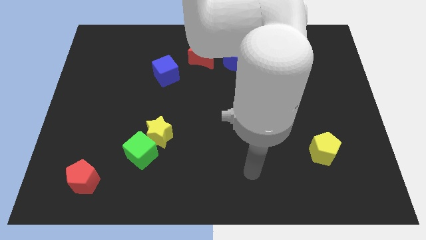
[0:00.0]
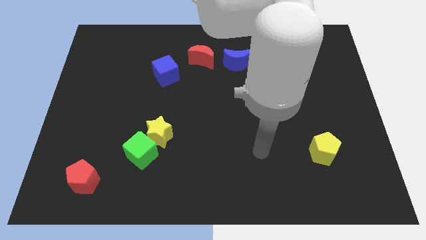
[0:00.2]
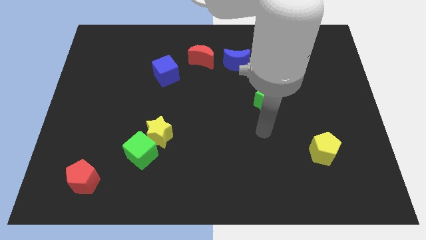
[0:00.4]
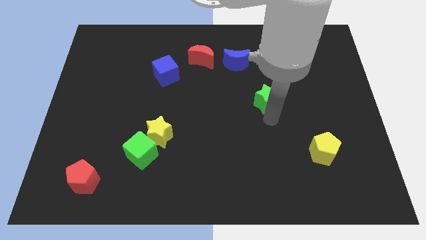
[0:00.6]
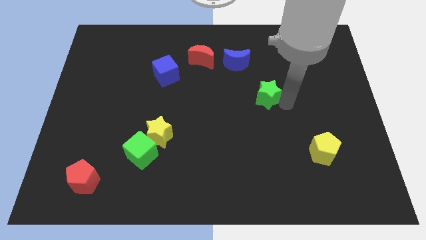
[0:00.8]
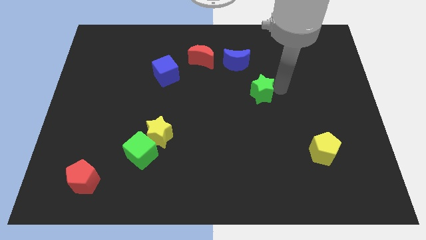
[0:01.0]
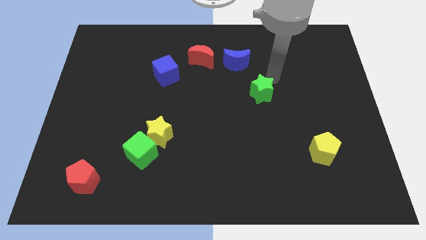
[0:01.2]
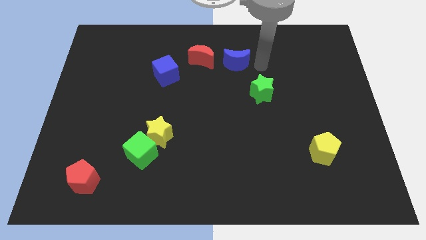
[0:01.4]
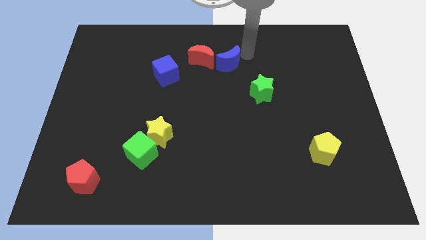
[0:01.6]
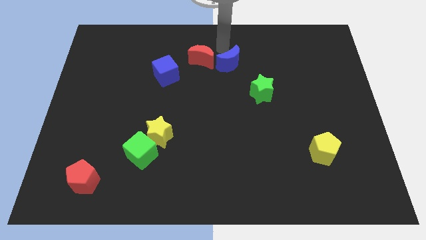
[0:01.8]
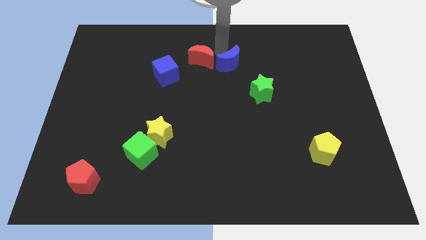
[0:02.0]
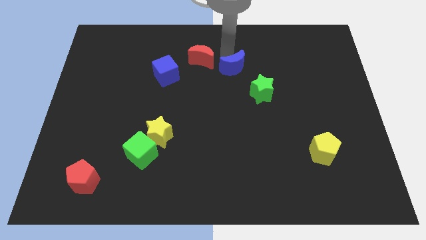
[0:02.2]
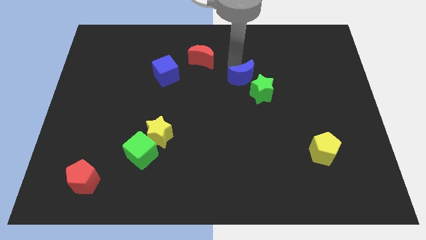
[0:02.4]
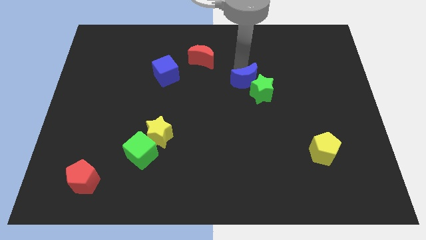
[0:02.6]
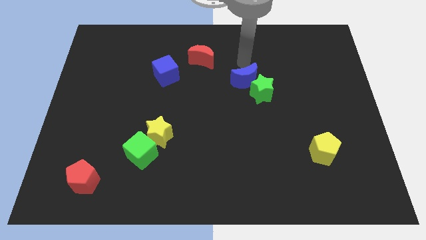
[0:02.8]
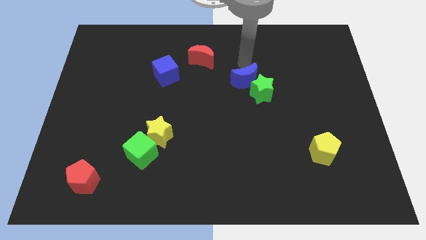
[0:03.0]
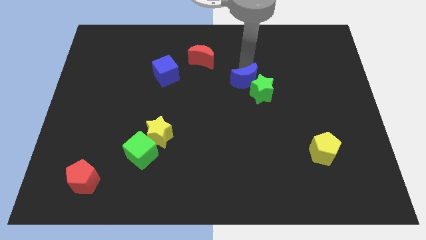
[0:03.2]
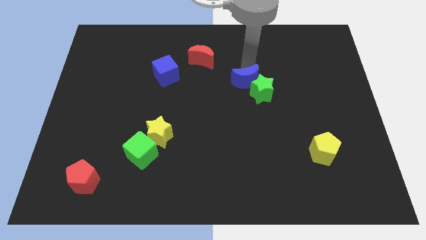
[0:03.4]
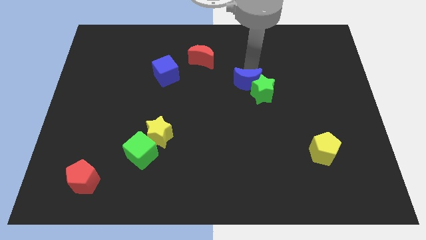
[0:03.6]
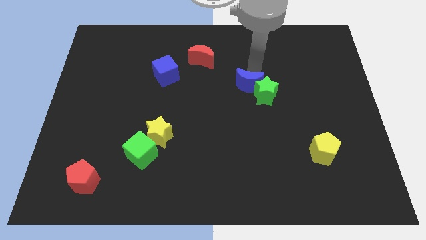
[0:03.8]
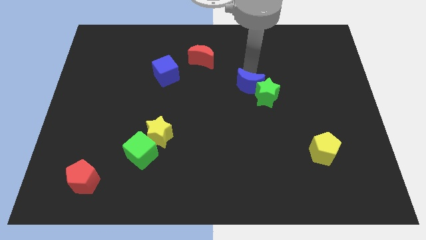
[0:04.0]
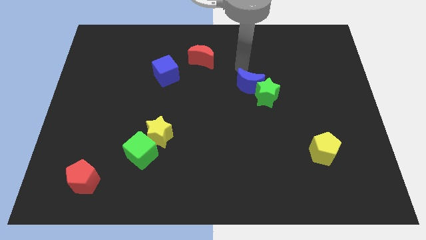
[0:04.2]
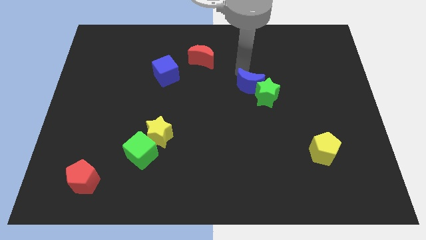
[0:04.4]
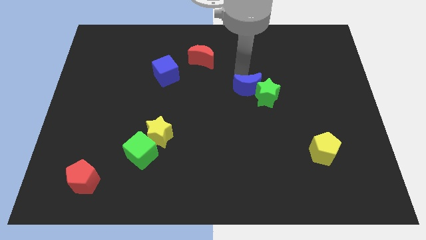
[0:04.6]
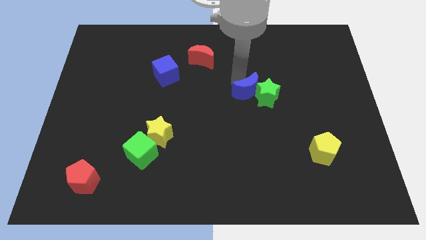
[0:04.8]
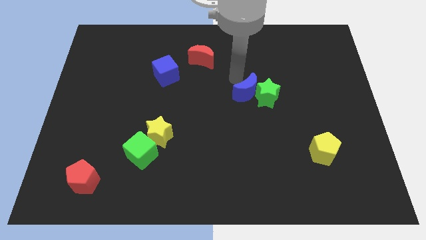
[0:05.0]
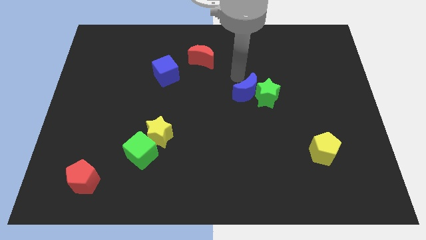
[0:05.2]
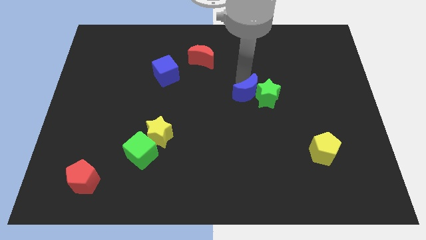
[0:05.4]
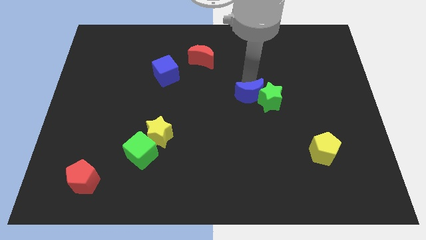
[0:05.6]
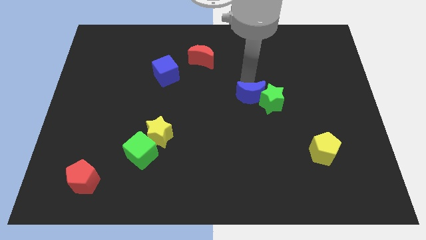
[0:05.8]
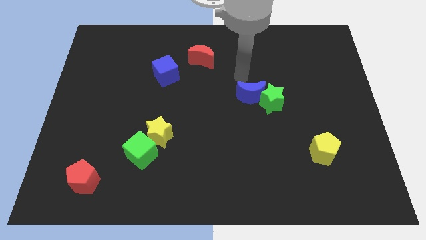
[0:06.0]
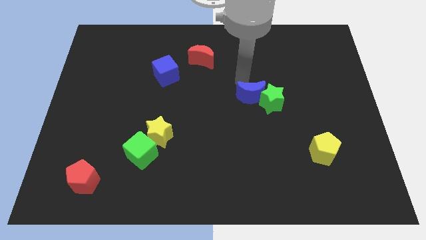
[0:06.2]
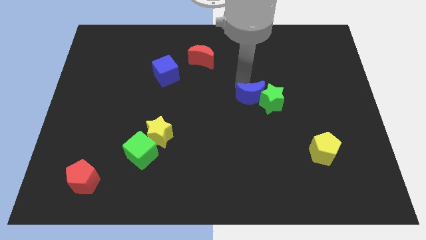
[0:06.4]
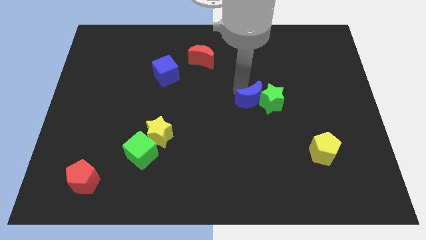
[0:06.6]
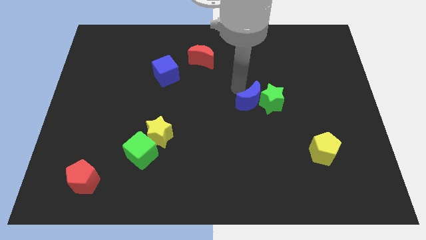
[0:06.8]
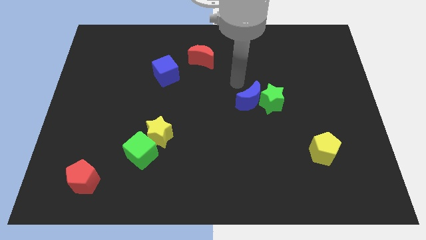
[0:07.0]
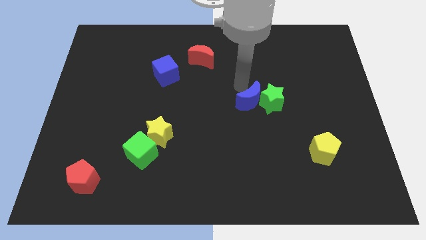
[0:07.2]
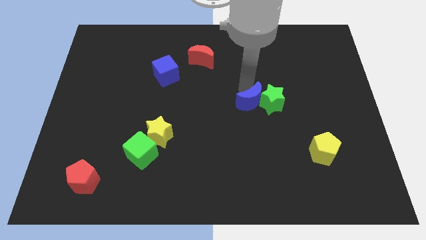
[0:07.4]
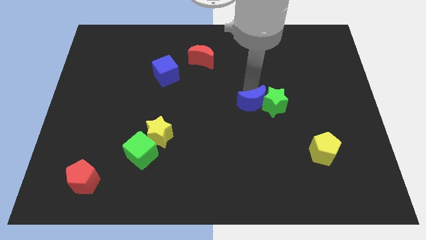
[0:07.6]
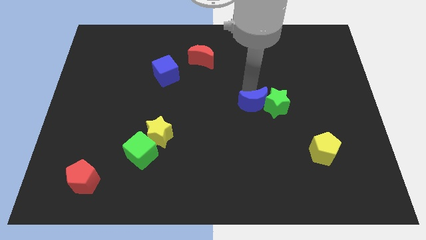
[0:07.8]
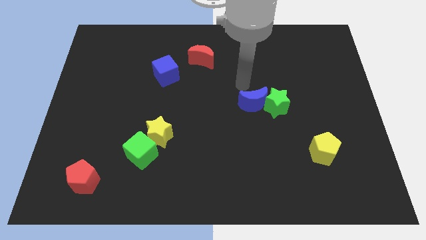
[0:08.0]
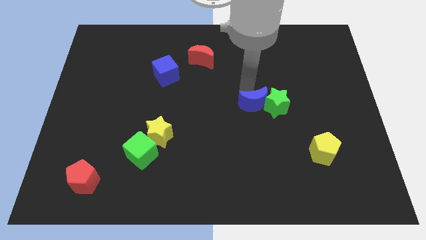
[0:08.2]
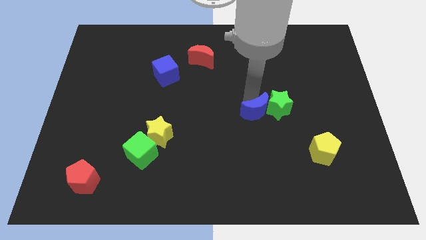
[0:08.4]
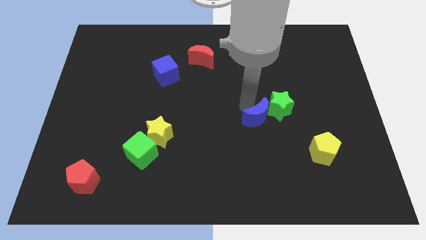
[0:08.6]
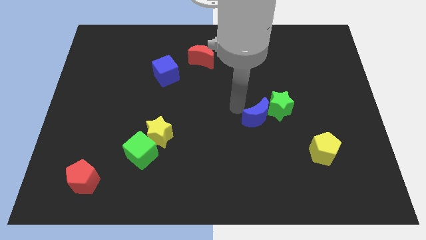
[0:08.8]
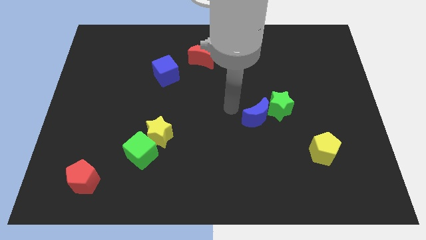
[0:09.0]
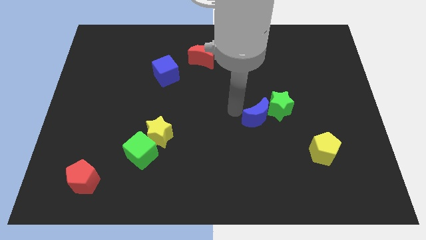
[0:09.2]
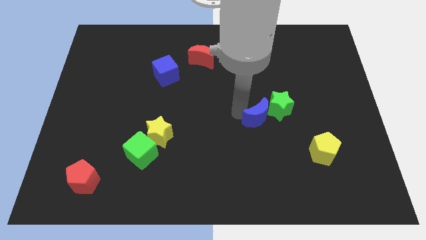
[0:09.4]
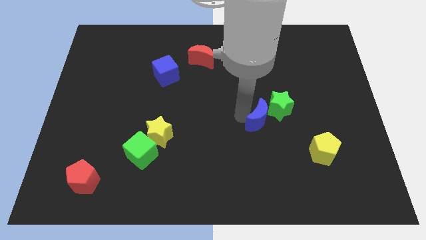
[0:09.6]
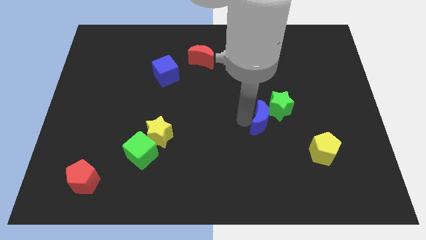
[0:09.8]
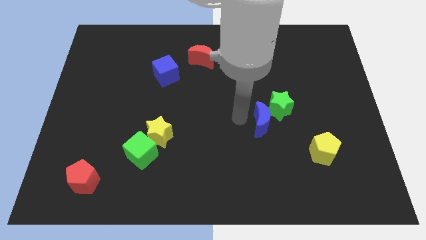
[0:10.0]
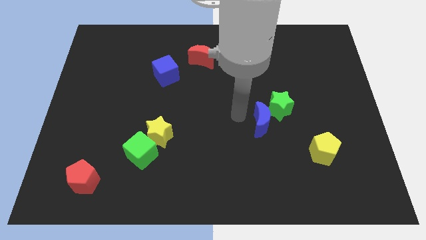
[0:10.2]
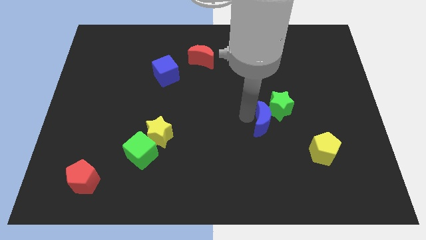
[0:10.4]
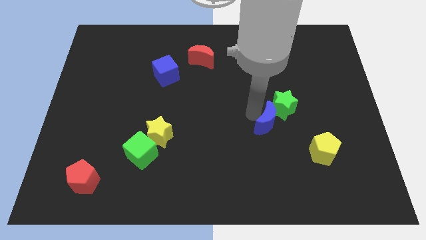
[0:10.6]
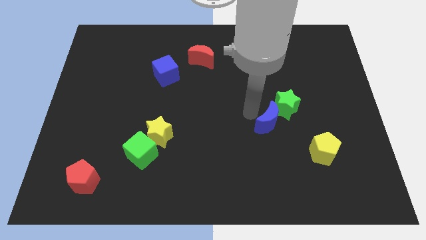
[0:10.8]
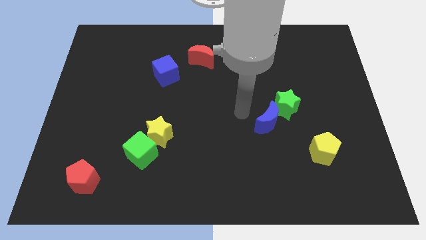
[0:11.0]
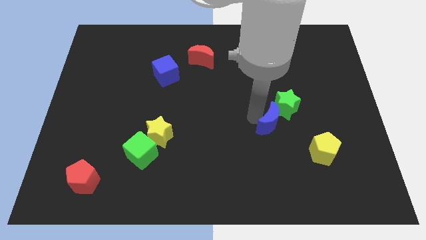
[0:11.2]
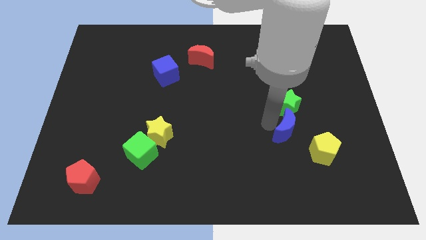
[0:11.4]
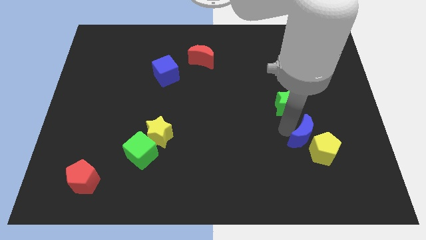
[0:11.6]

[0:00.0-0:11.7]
slide the blue moon next to the yellow pentagon

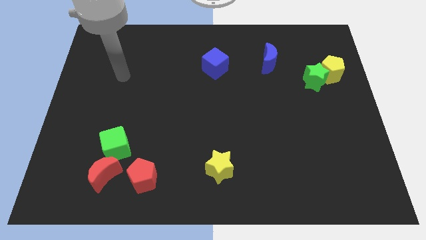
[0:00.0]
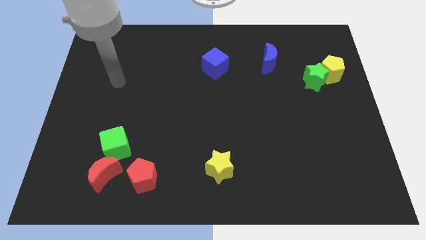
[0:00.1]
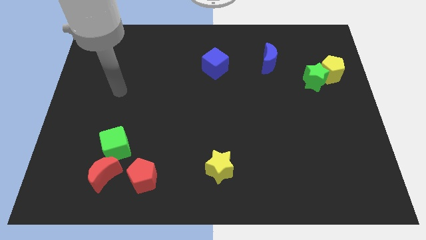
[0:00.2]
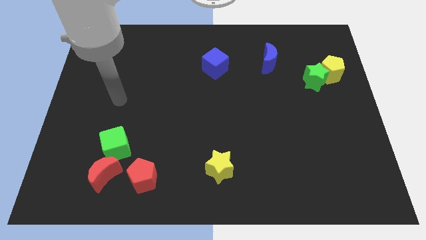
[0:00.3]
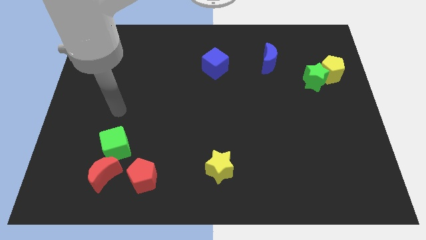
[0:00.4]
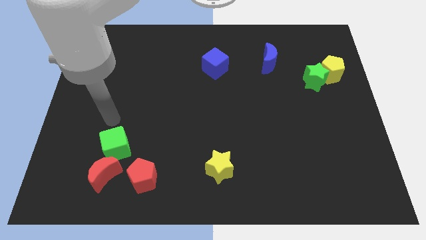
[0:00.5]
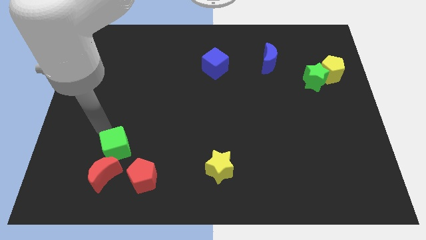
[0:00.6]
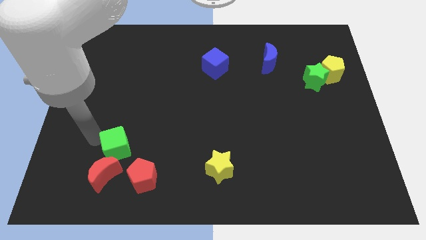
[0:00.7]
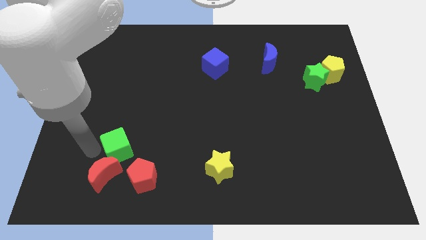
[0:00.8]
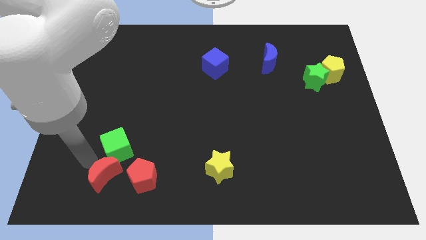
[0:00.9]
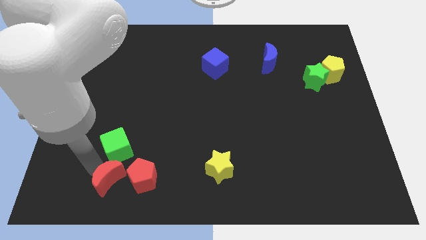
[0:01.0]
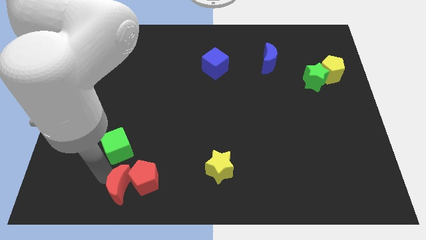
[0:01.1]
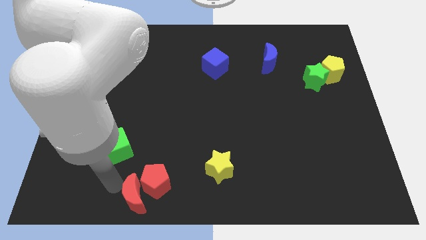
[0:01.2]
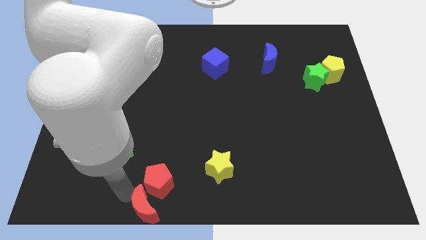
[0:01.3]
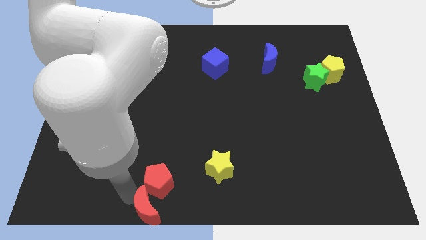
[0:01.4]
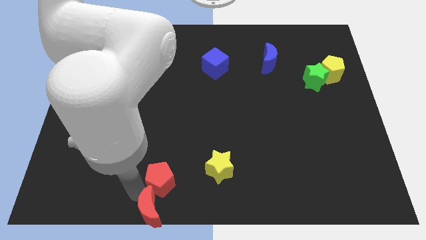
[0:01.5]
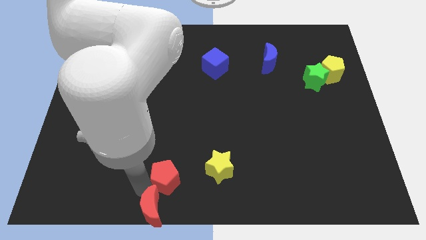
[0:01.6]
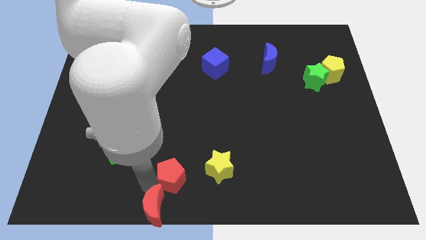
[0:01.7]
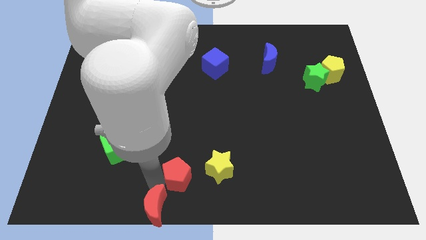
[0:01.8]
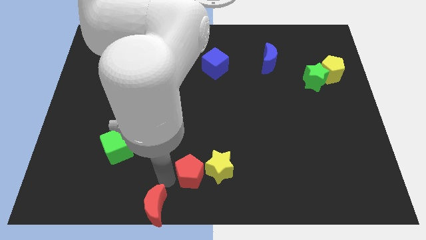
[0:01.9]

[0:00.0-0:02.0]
put the red pentagon towards the yellow star
